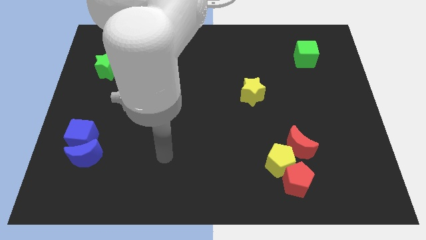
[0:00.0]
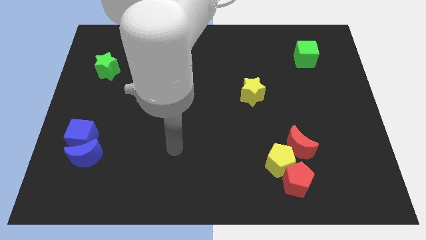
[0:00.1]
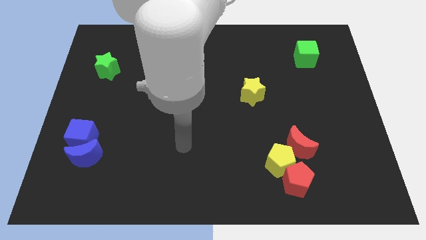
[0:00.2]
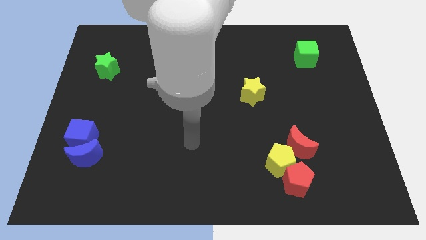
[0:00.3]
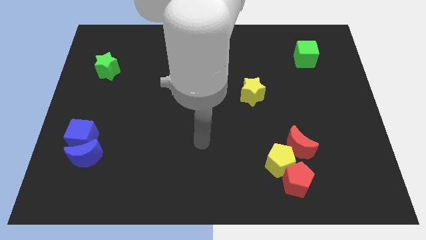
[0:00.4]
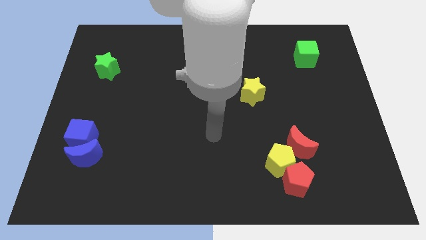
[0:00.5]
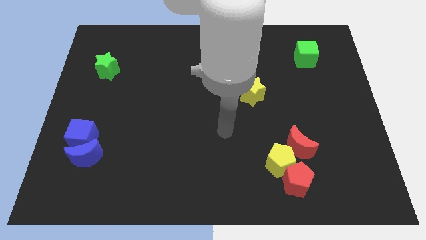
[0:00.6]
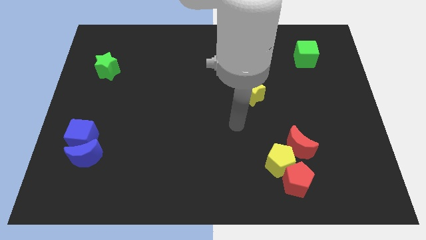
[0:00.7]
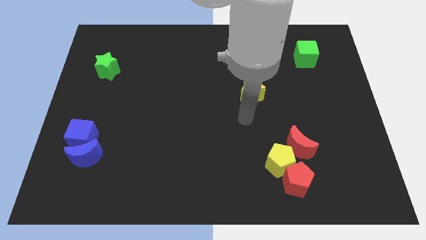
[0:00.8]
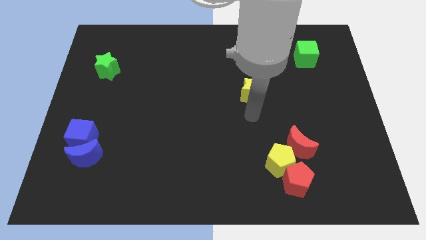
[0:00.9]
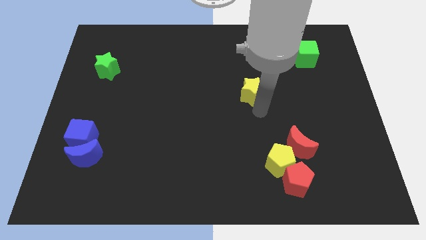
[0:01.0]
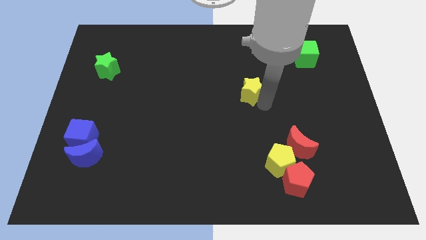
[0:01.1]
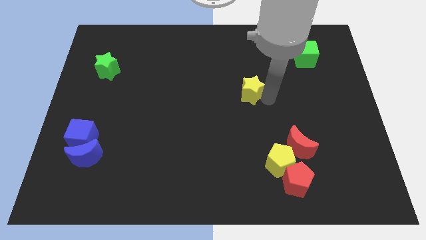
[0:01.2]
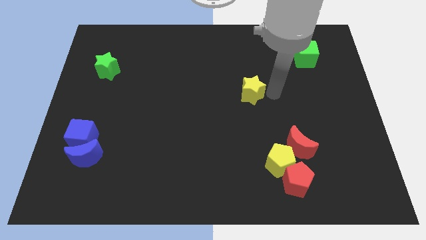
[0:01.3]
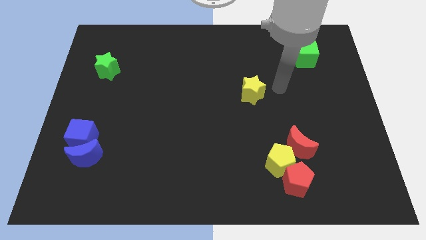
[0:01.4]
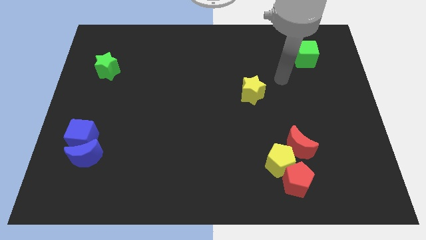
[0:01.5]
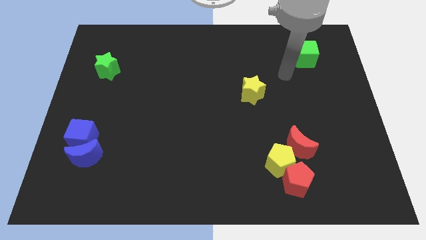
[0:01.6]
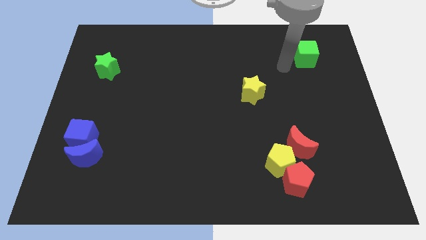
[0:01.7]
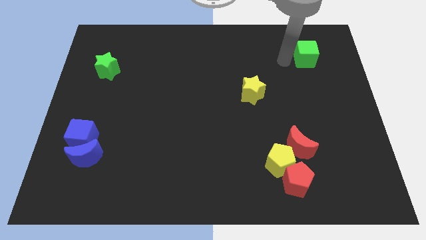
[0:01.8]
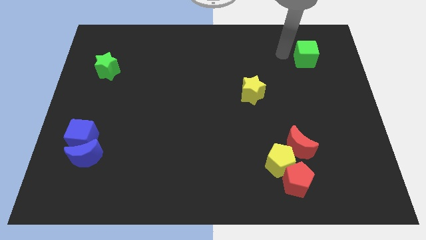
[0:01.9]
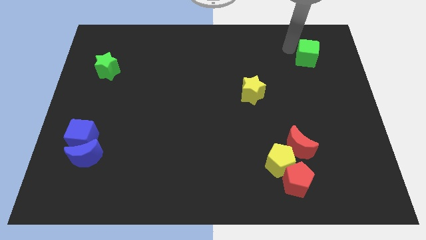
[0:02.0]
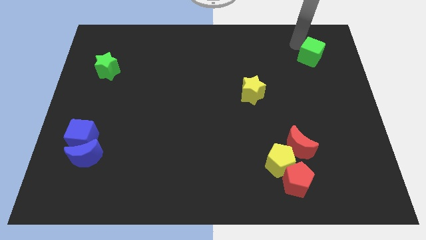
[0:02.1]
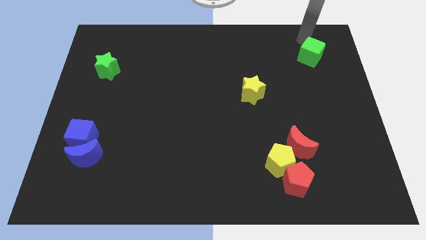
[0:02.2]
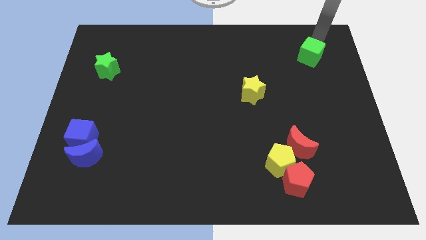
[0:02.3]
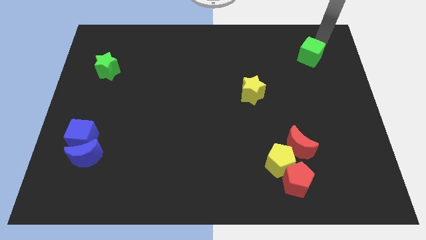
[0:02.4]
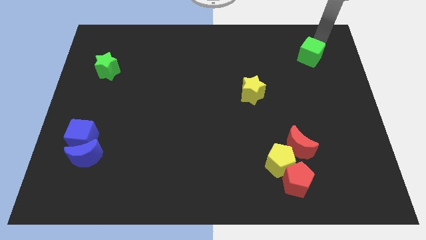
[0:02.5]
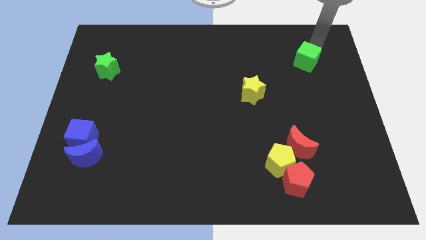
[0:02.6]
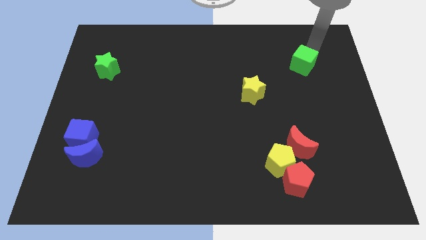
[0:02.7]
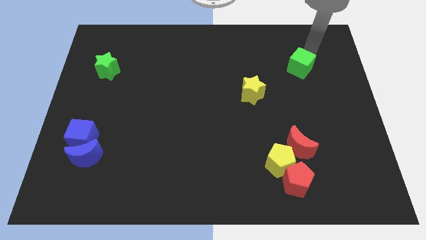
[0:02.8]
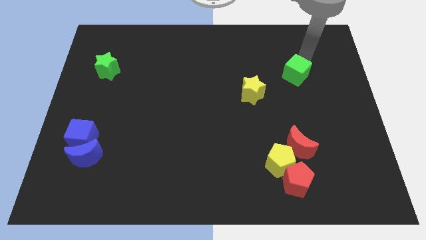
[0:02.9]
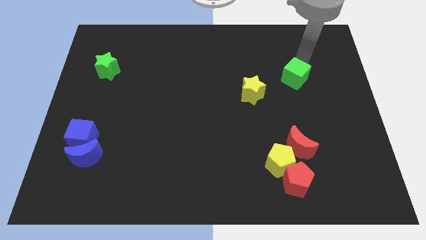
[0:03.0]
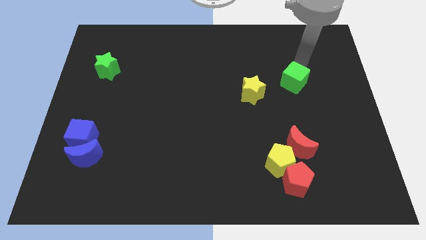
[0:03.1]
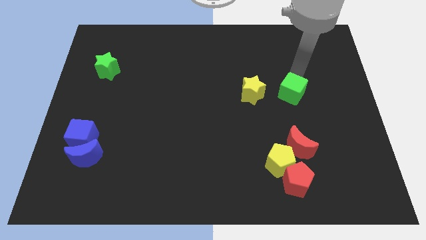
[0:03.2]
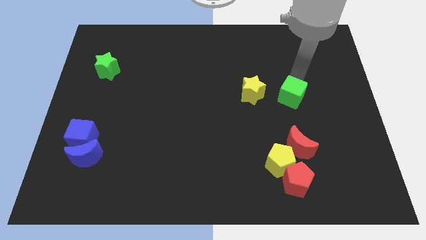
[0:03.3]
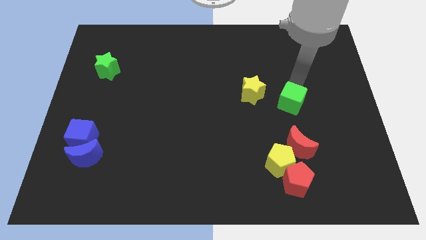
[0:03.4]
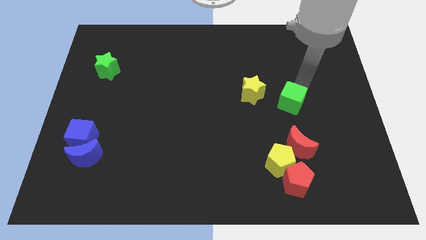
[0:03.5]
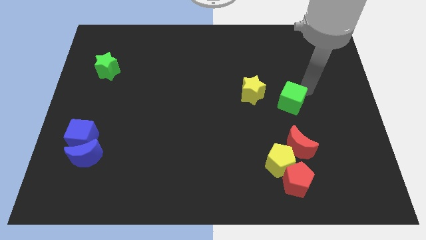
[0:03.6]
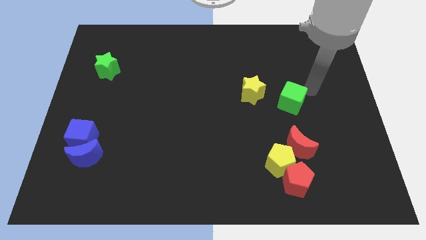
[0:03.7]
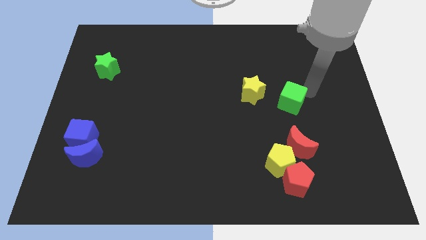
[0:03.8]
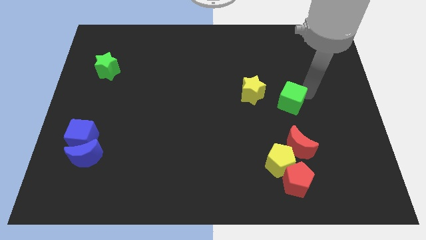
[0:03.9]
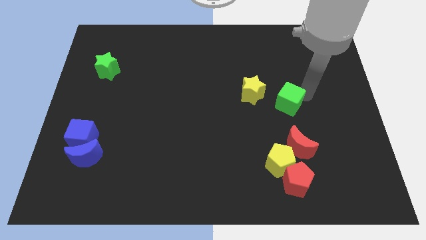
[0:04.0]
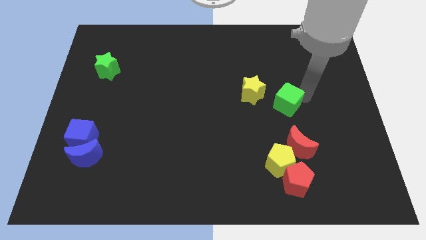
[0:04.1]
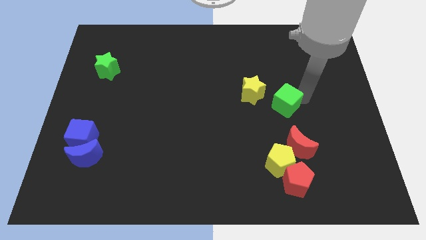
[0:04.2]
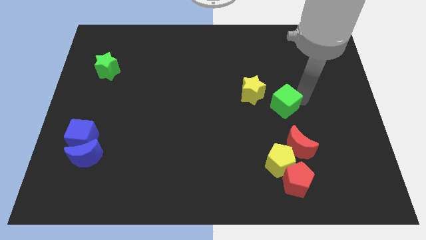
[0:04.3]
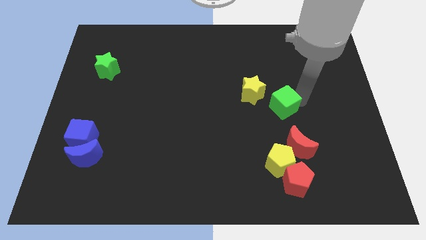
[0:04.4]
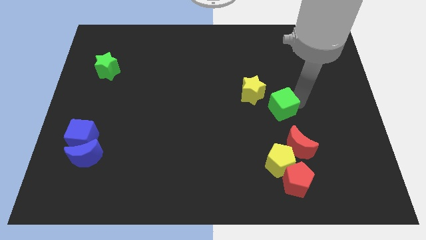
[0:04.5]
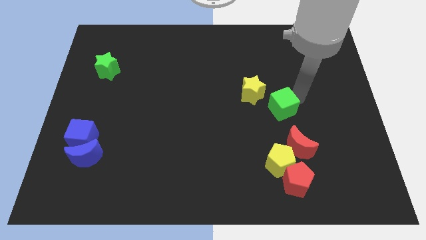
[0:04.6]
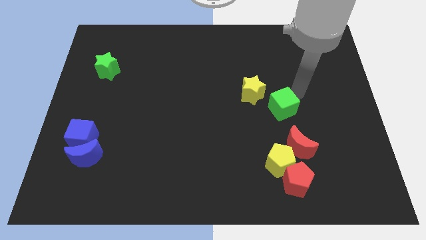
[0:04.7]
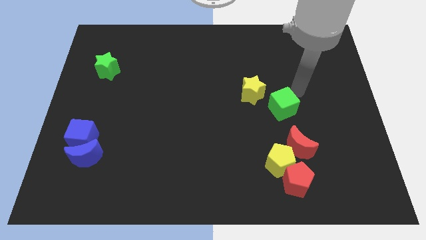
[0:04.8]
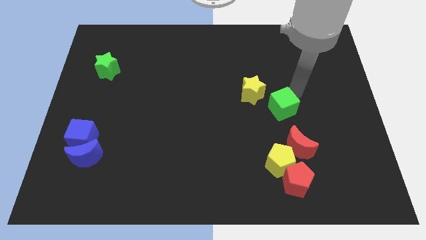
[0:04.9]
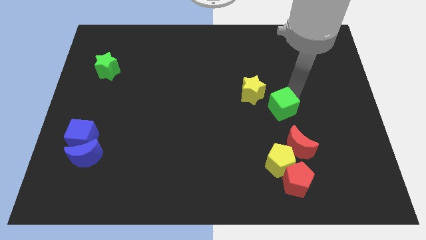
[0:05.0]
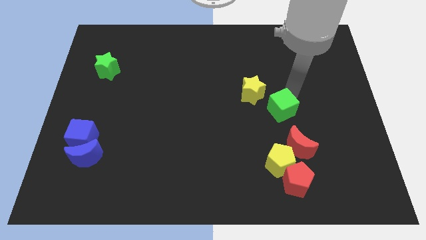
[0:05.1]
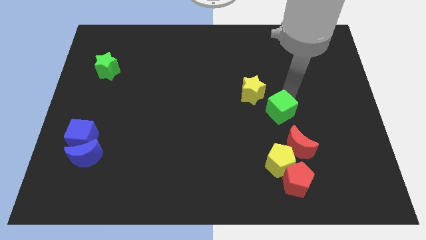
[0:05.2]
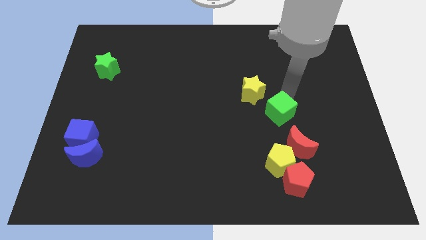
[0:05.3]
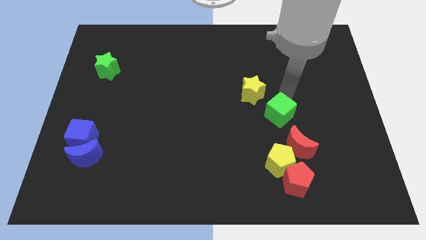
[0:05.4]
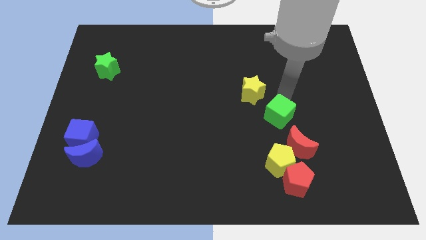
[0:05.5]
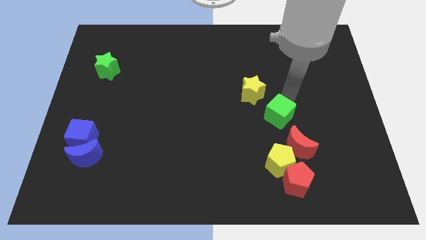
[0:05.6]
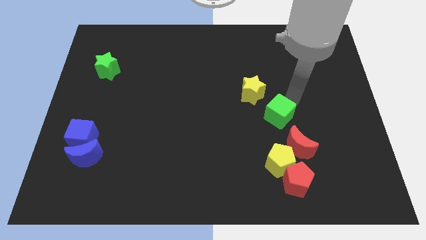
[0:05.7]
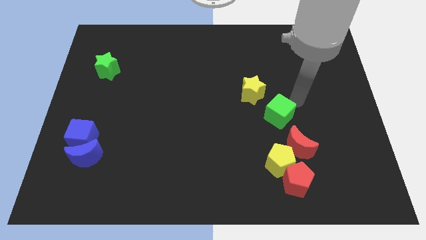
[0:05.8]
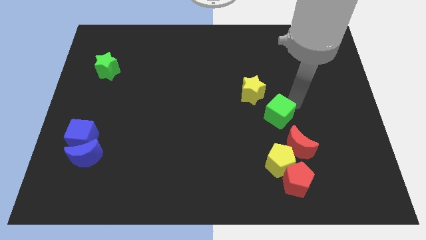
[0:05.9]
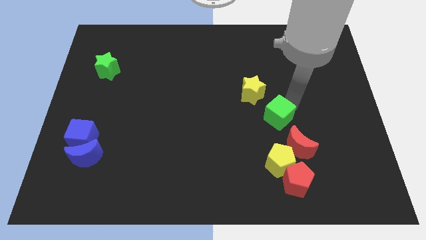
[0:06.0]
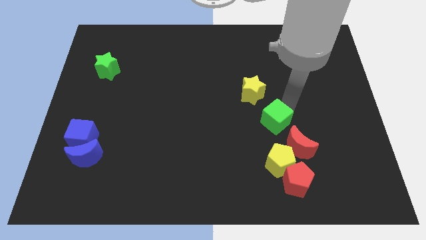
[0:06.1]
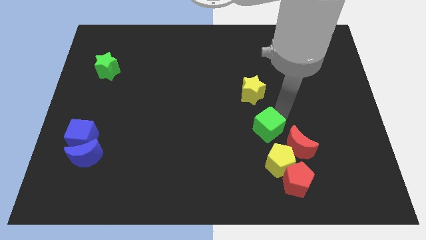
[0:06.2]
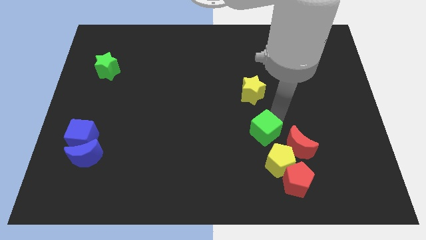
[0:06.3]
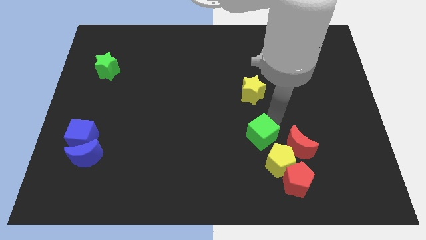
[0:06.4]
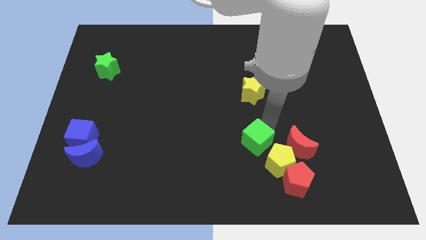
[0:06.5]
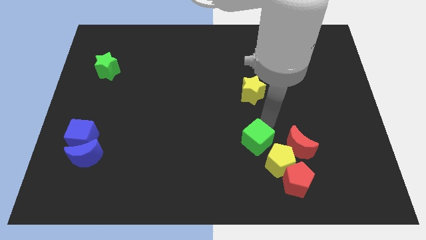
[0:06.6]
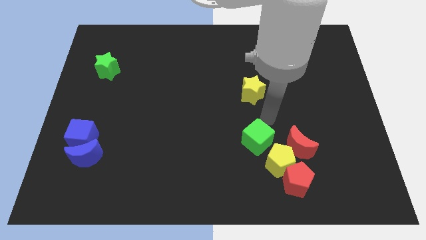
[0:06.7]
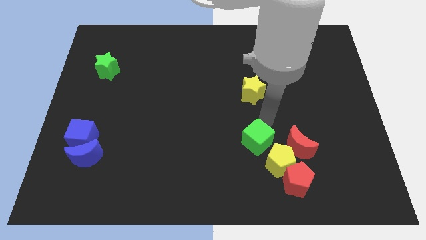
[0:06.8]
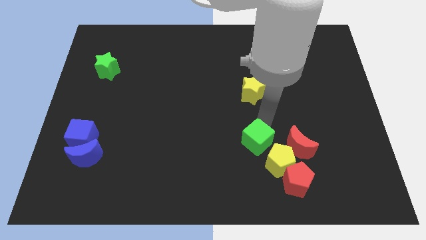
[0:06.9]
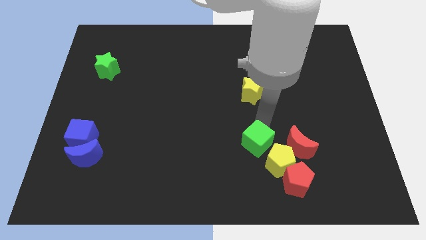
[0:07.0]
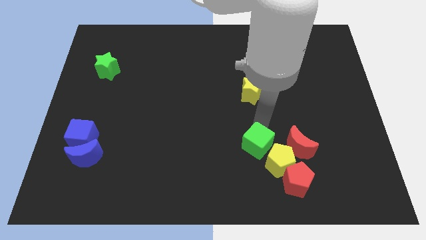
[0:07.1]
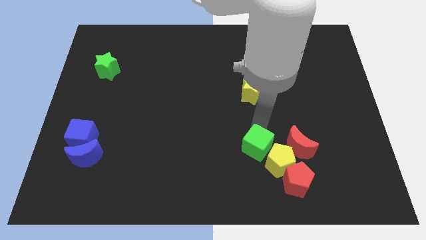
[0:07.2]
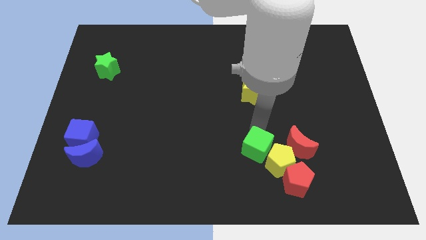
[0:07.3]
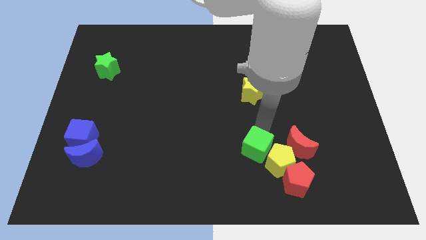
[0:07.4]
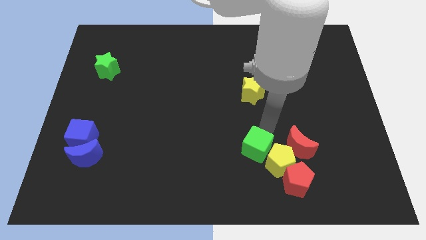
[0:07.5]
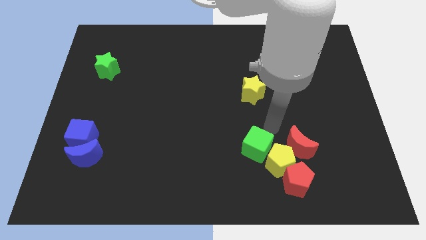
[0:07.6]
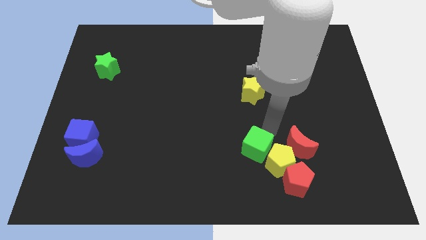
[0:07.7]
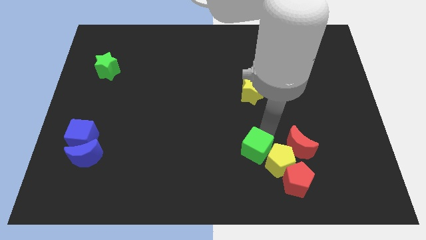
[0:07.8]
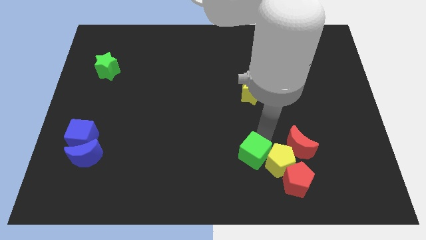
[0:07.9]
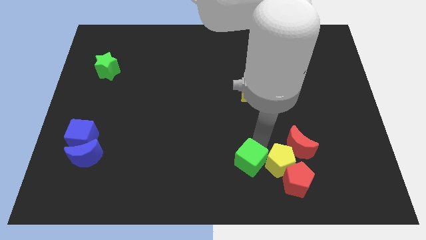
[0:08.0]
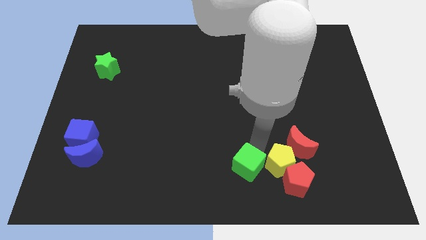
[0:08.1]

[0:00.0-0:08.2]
put the green cube to the bottom
